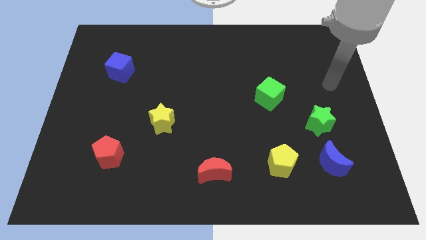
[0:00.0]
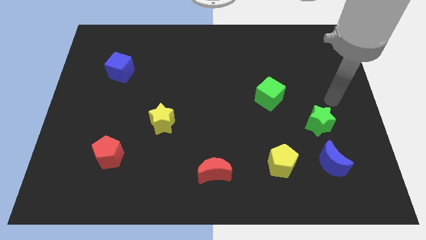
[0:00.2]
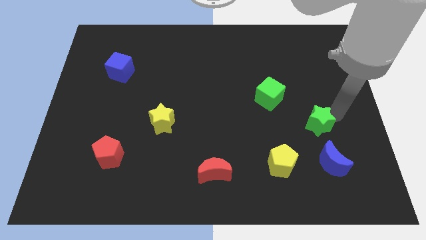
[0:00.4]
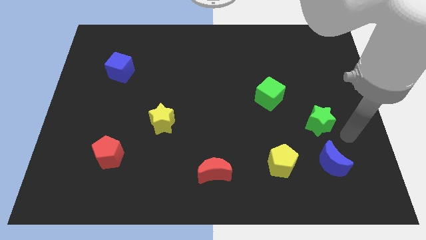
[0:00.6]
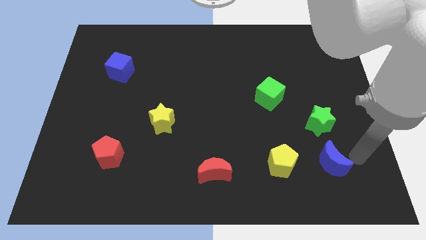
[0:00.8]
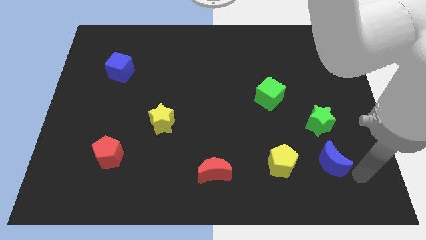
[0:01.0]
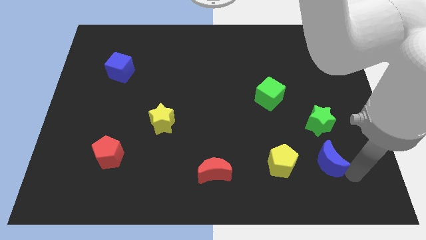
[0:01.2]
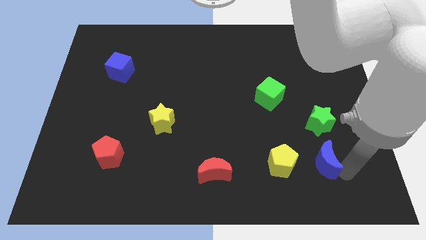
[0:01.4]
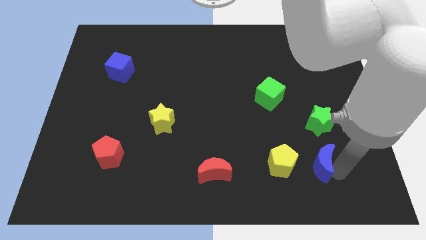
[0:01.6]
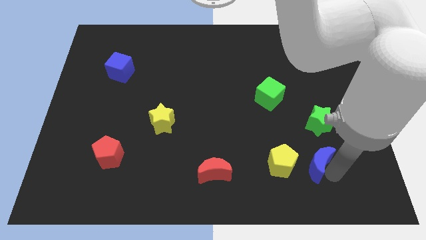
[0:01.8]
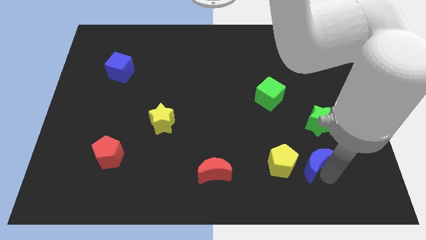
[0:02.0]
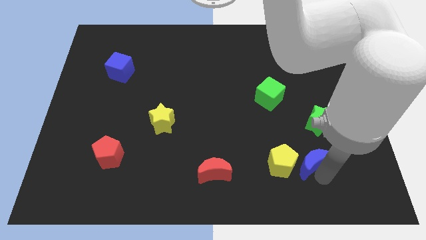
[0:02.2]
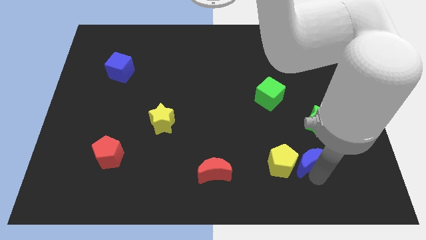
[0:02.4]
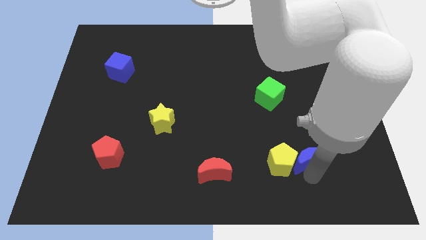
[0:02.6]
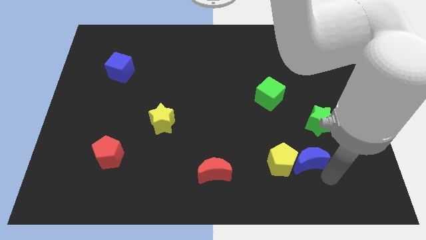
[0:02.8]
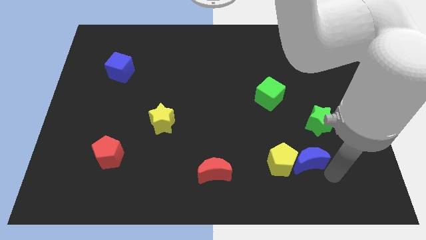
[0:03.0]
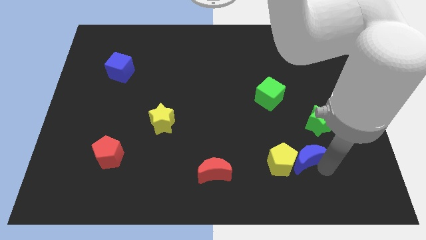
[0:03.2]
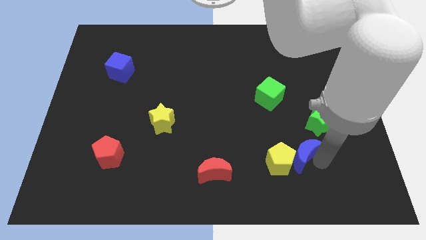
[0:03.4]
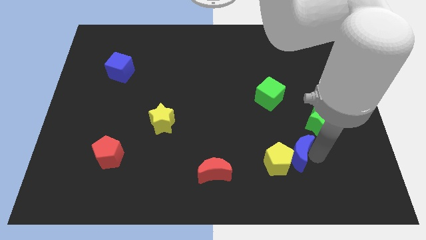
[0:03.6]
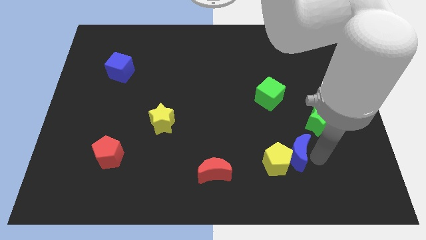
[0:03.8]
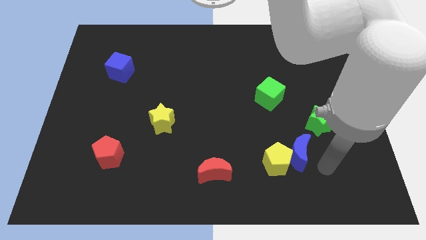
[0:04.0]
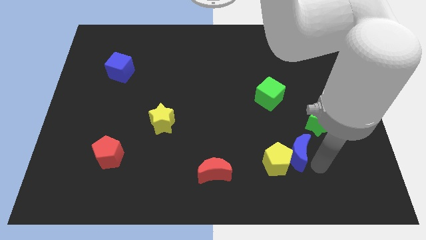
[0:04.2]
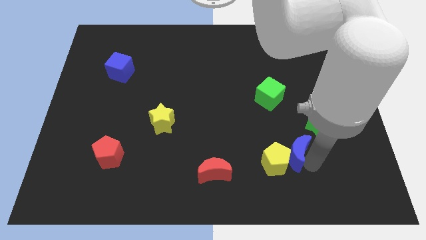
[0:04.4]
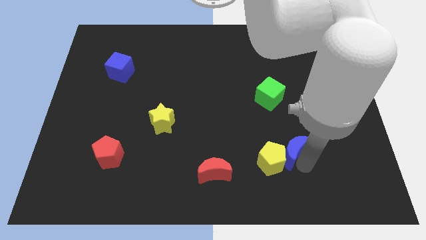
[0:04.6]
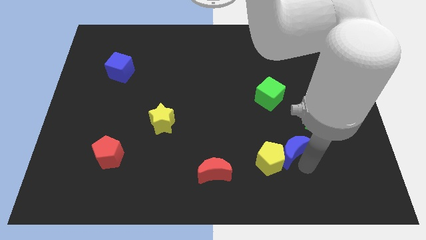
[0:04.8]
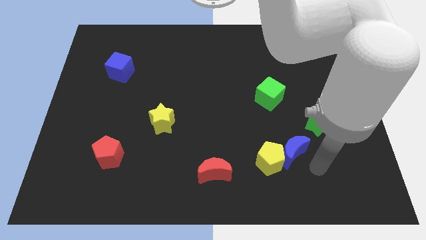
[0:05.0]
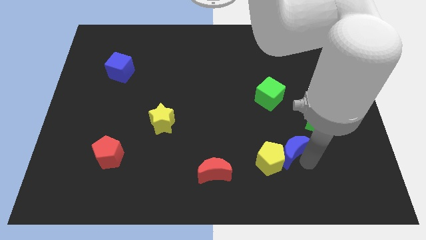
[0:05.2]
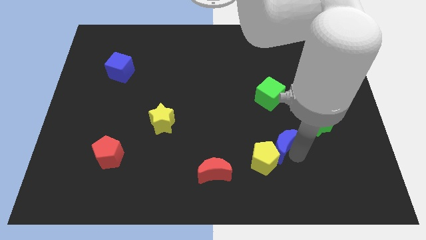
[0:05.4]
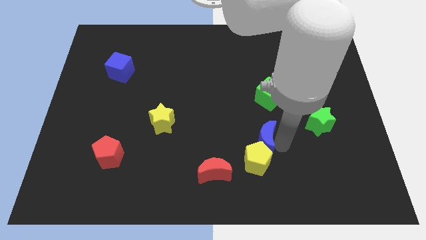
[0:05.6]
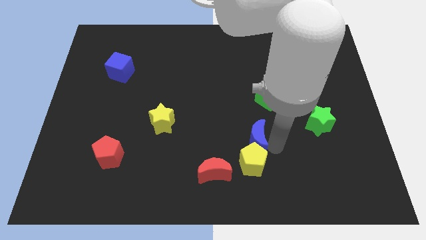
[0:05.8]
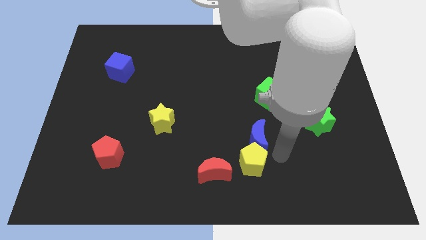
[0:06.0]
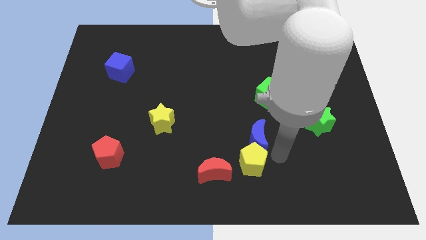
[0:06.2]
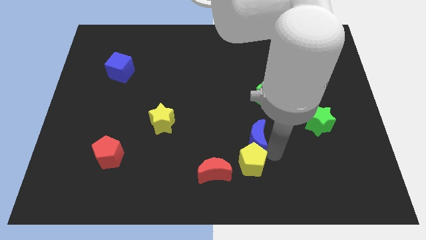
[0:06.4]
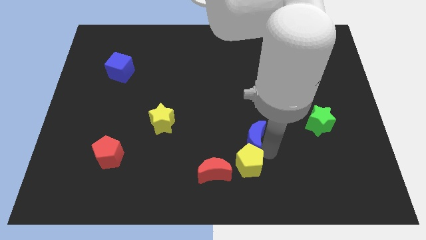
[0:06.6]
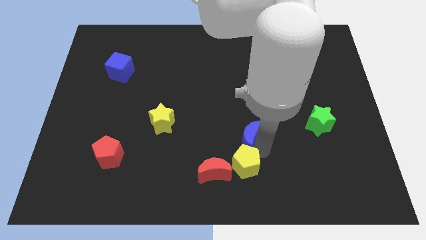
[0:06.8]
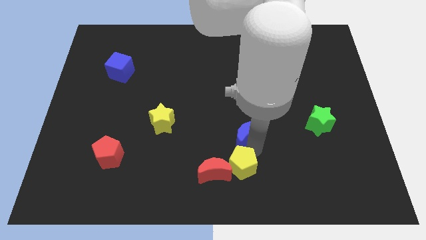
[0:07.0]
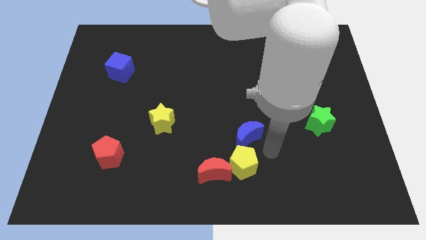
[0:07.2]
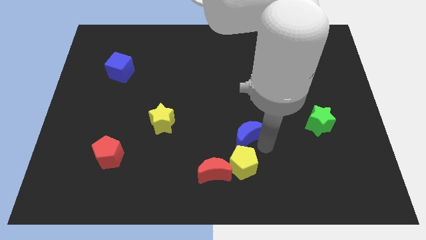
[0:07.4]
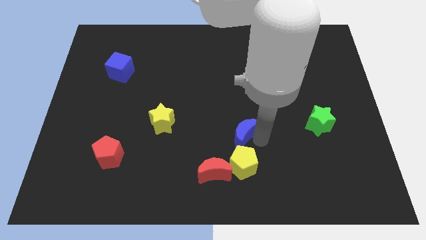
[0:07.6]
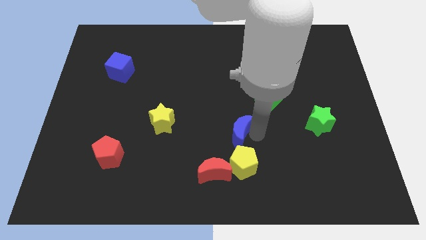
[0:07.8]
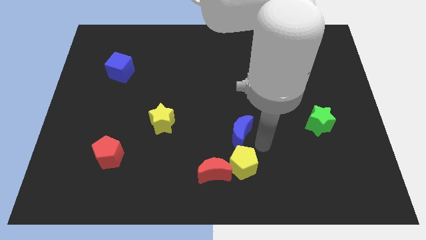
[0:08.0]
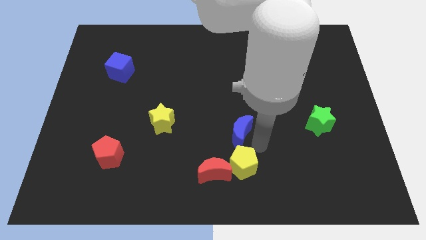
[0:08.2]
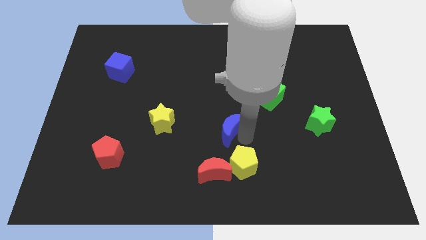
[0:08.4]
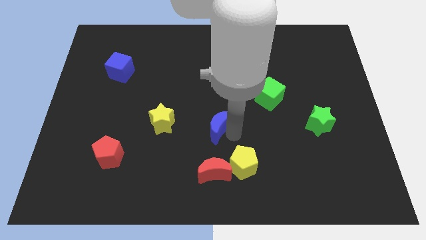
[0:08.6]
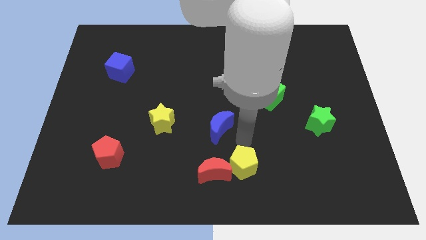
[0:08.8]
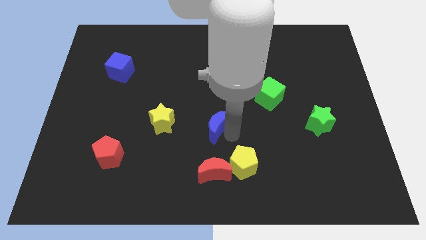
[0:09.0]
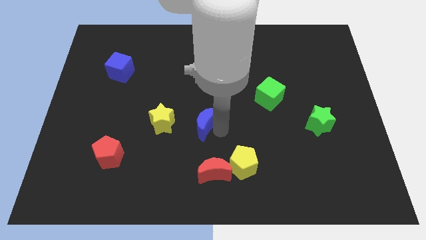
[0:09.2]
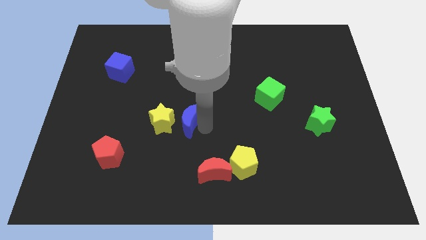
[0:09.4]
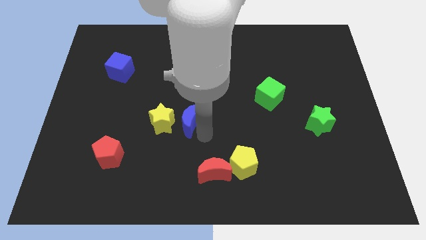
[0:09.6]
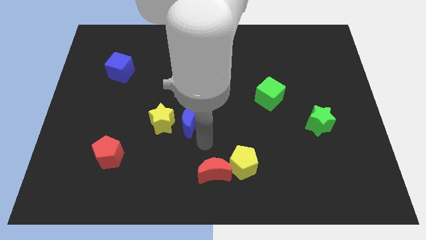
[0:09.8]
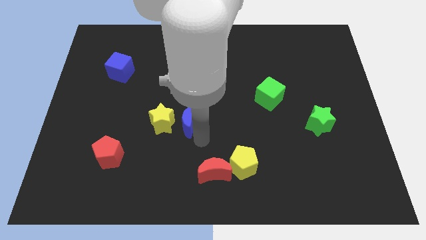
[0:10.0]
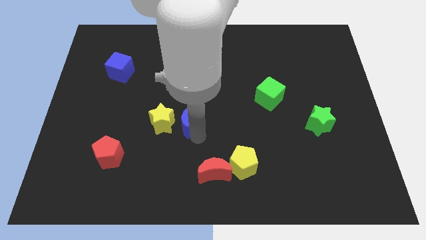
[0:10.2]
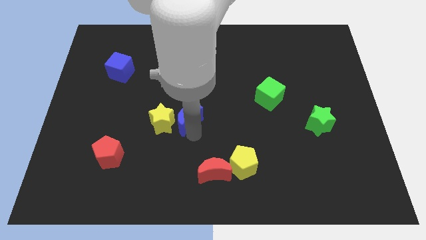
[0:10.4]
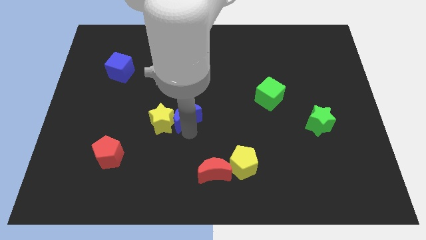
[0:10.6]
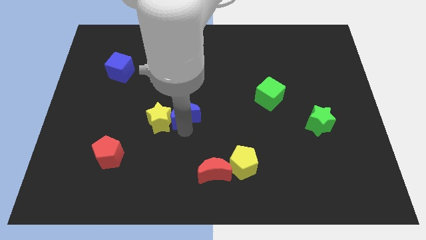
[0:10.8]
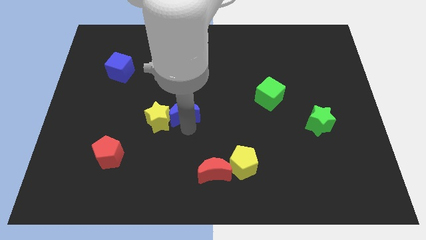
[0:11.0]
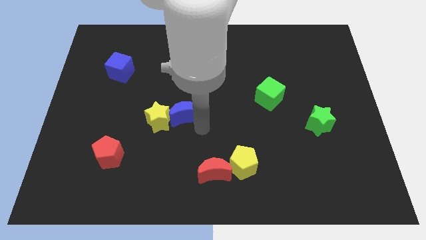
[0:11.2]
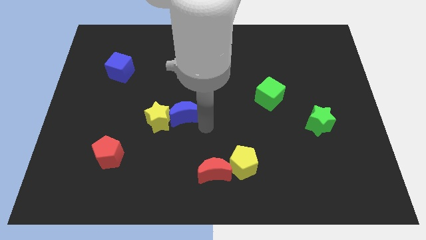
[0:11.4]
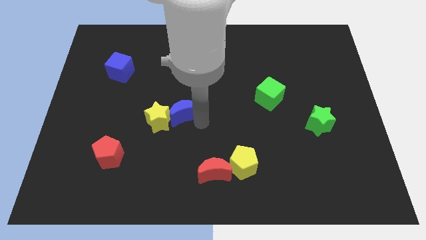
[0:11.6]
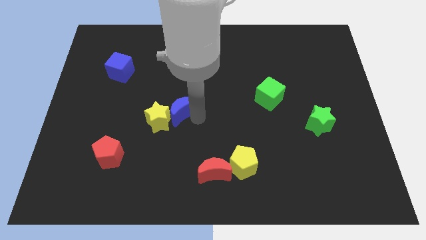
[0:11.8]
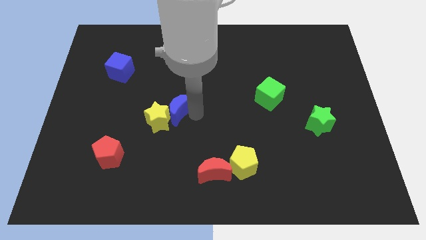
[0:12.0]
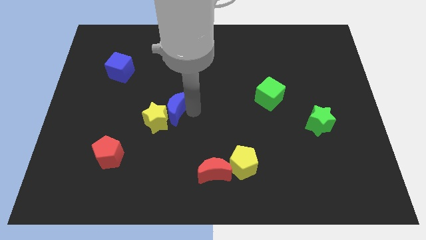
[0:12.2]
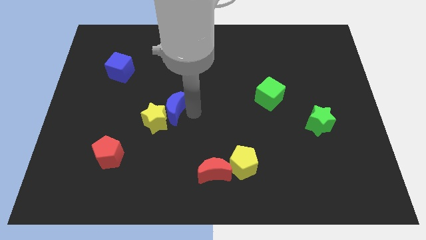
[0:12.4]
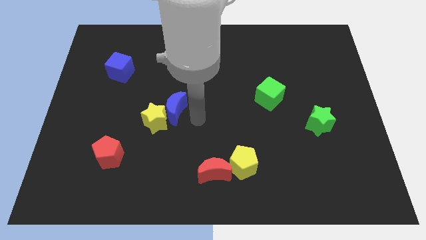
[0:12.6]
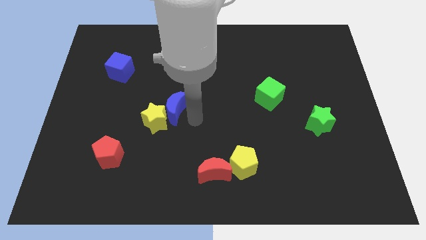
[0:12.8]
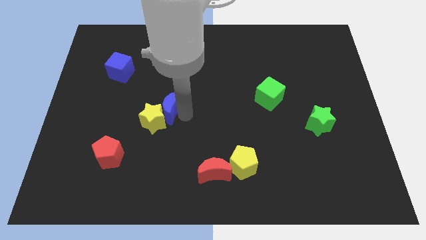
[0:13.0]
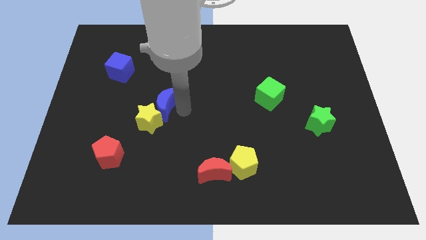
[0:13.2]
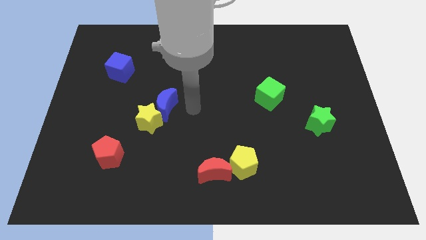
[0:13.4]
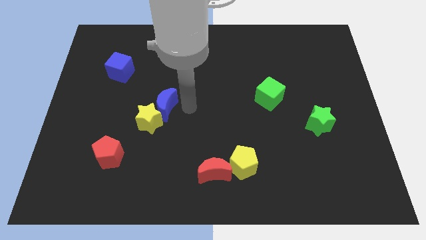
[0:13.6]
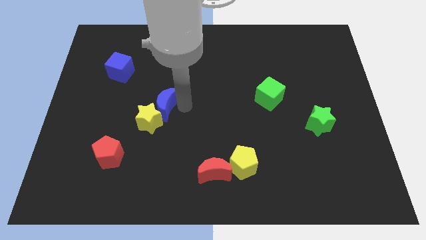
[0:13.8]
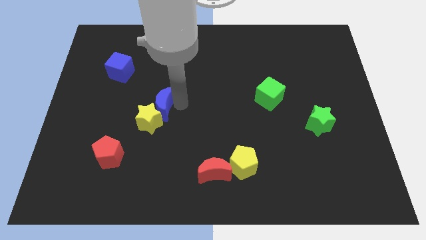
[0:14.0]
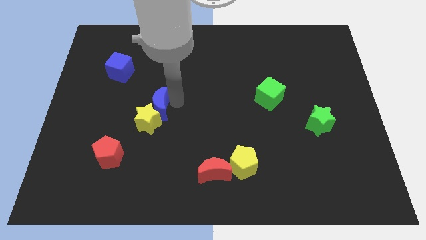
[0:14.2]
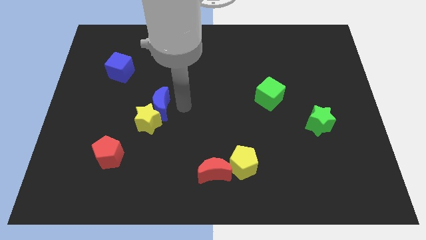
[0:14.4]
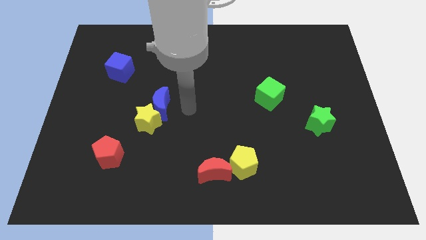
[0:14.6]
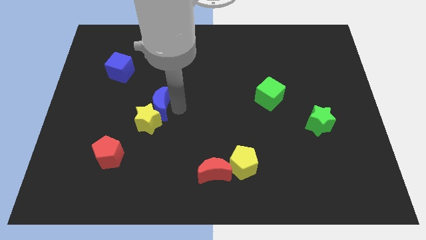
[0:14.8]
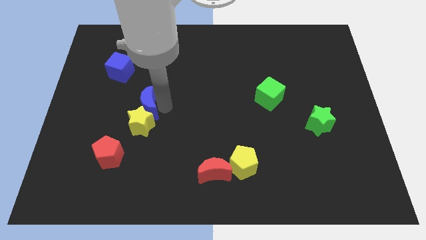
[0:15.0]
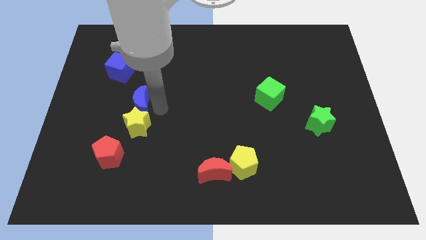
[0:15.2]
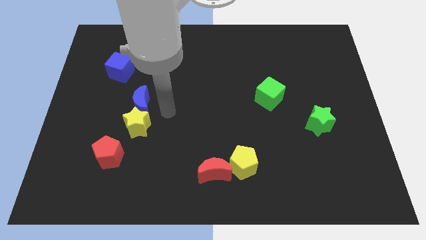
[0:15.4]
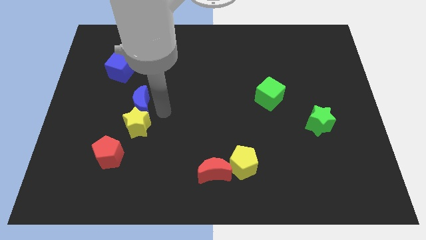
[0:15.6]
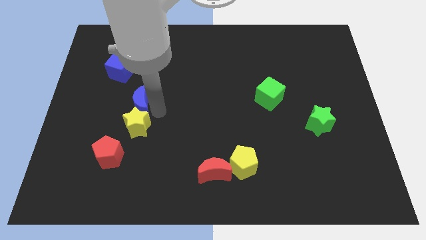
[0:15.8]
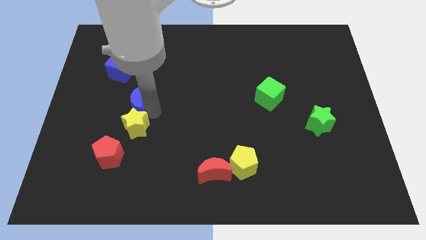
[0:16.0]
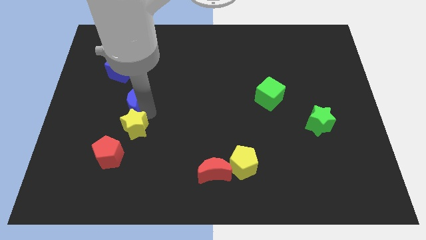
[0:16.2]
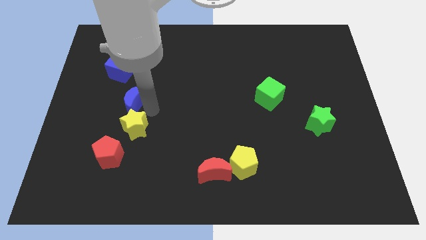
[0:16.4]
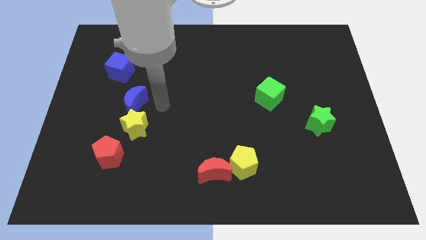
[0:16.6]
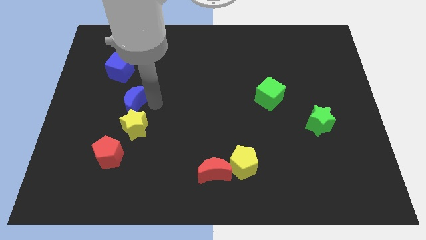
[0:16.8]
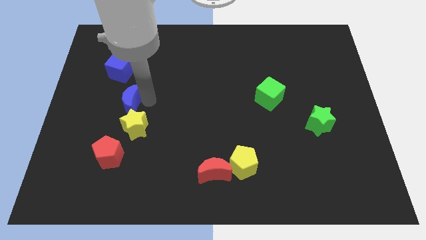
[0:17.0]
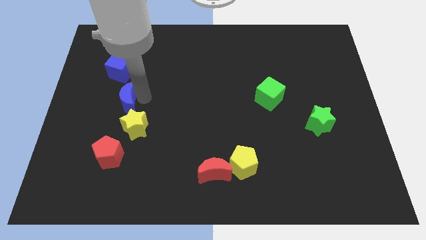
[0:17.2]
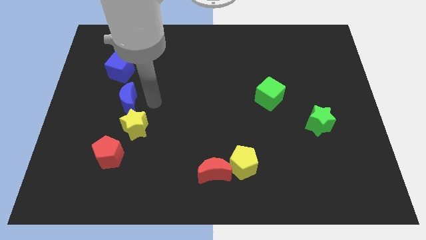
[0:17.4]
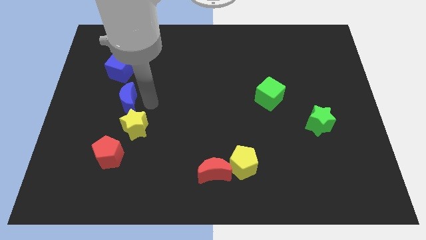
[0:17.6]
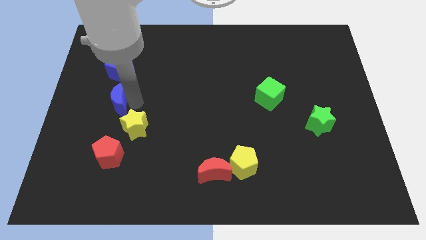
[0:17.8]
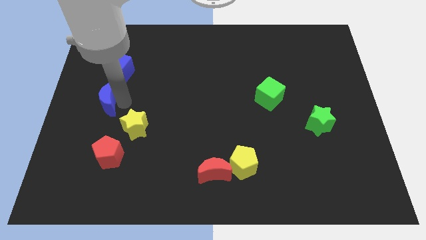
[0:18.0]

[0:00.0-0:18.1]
put the blue moon to the left side
